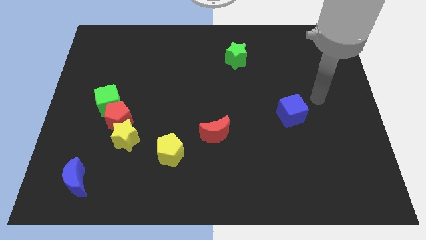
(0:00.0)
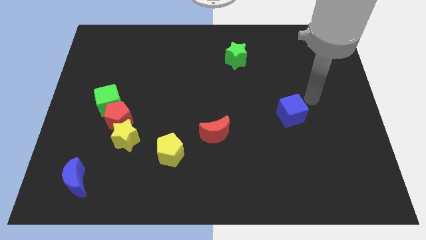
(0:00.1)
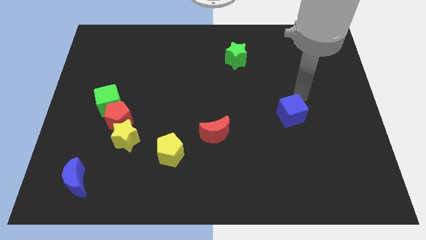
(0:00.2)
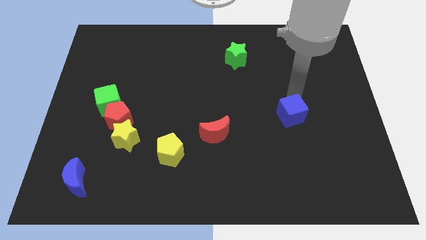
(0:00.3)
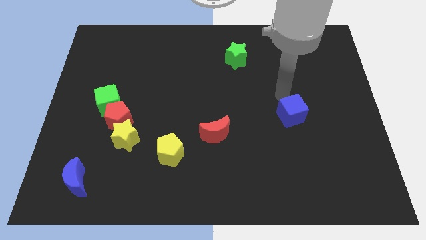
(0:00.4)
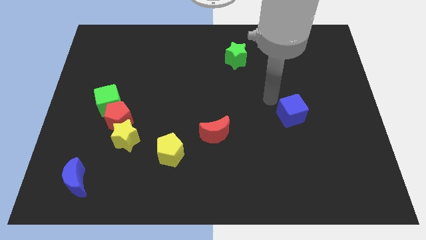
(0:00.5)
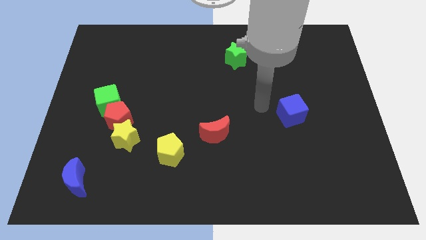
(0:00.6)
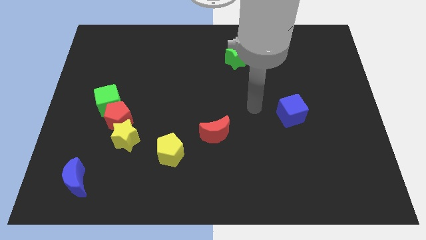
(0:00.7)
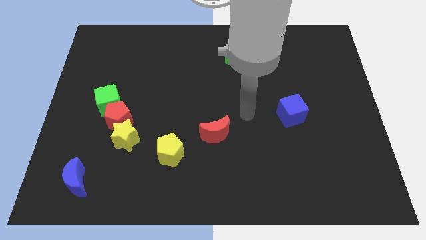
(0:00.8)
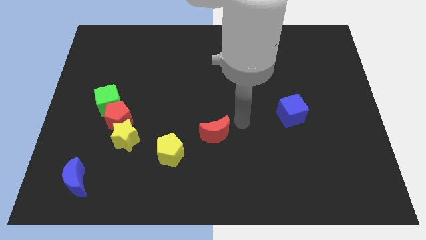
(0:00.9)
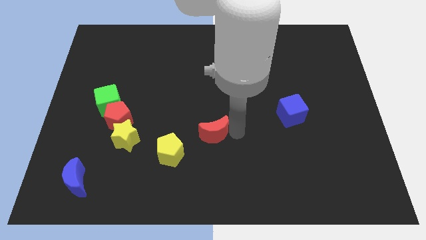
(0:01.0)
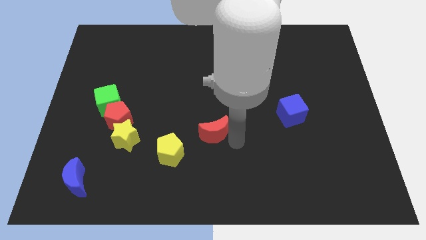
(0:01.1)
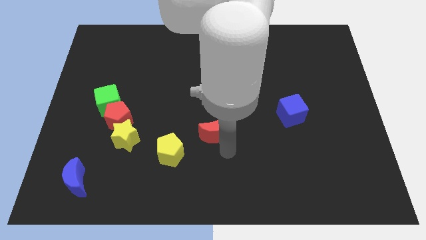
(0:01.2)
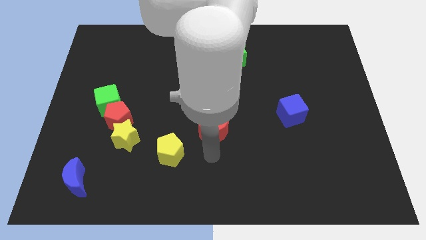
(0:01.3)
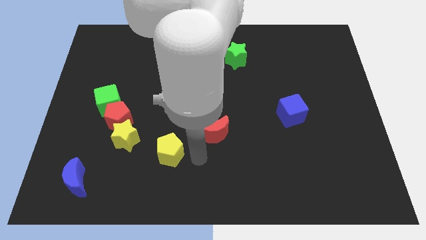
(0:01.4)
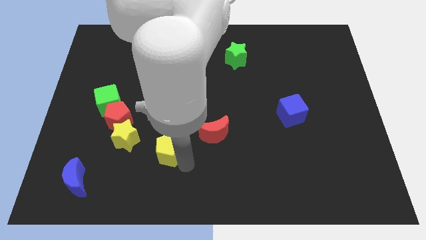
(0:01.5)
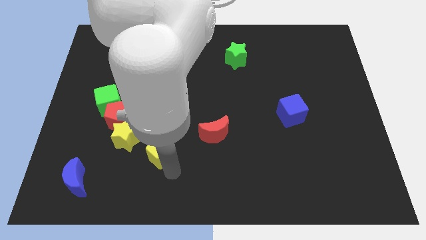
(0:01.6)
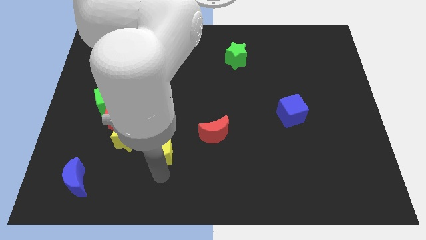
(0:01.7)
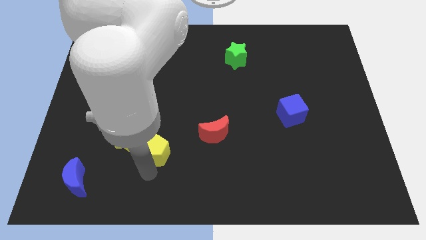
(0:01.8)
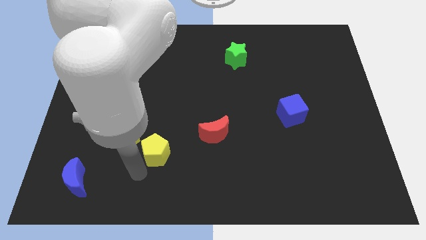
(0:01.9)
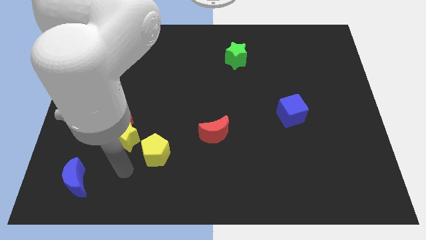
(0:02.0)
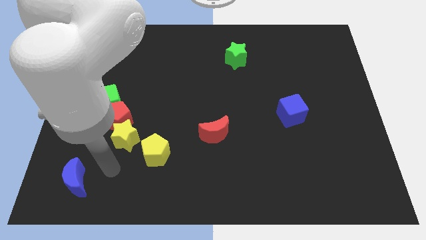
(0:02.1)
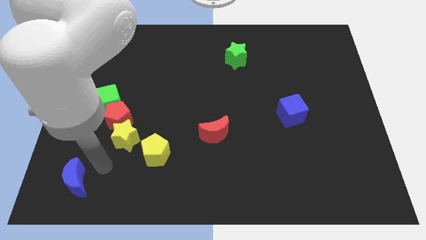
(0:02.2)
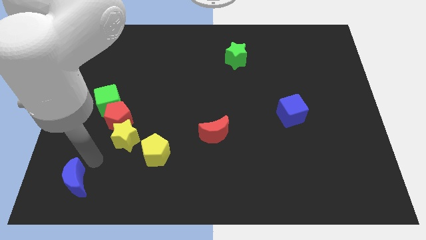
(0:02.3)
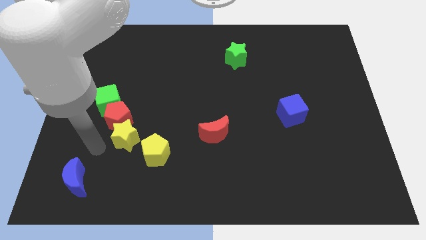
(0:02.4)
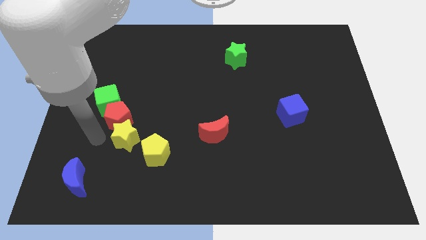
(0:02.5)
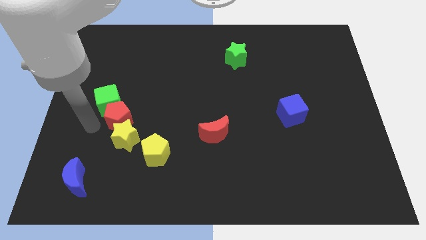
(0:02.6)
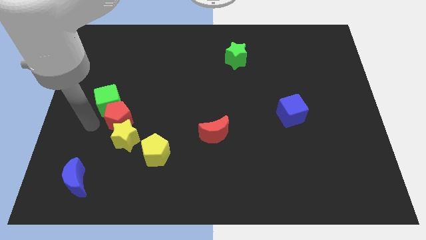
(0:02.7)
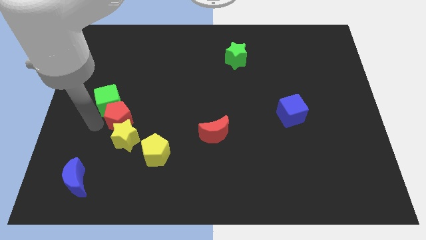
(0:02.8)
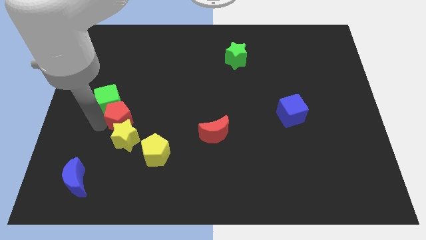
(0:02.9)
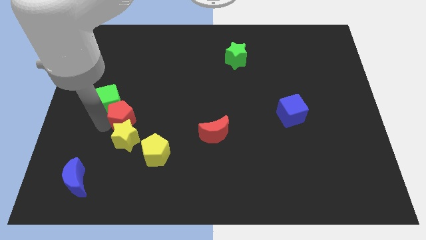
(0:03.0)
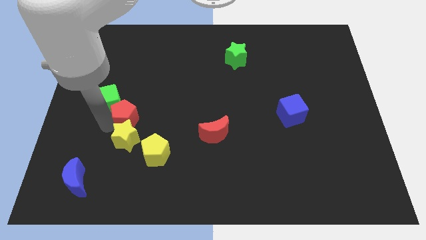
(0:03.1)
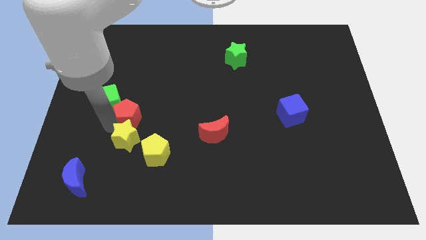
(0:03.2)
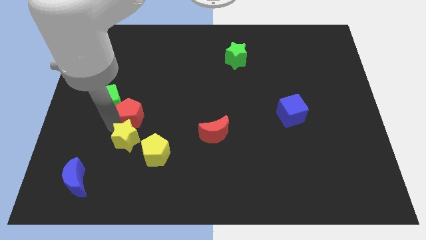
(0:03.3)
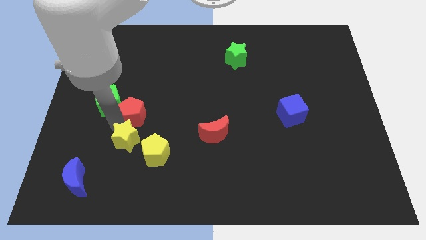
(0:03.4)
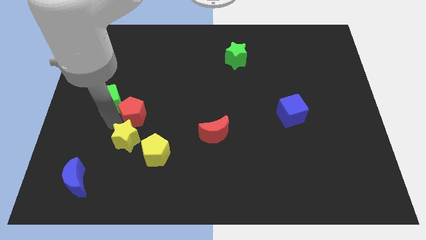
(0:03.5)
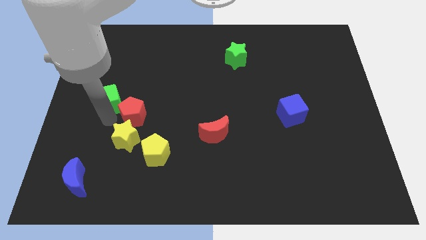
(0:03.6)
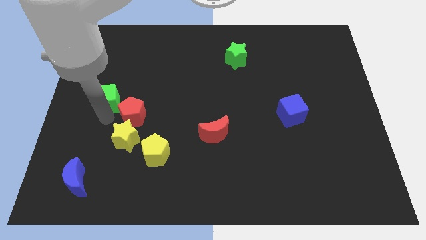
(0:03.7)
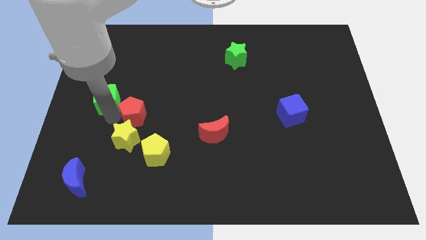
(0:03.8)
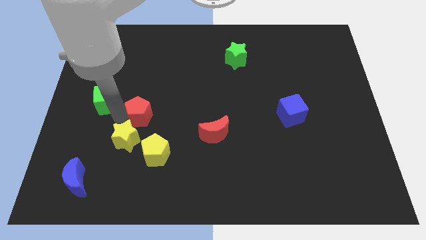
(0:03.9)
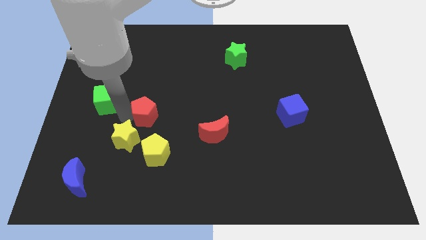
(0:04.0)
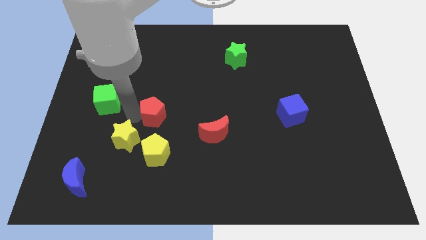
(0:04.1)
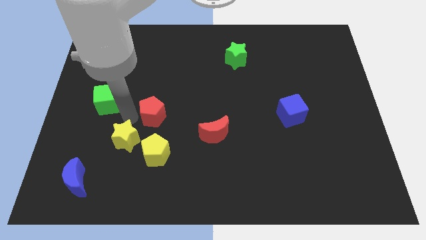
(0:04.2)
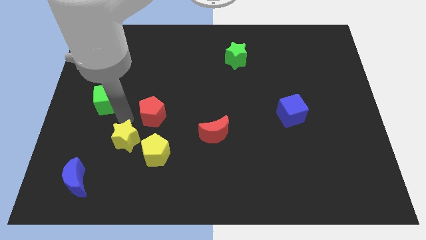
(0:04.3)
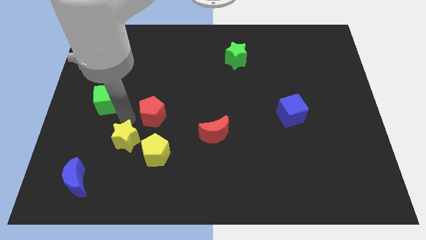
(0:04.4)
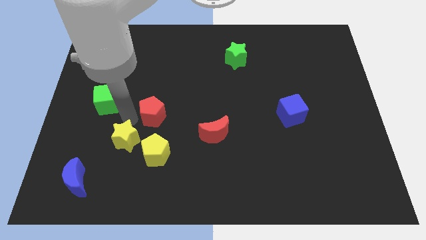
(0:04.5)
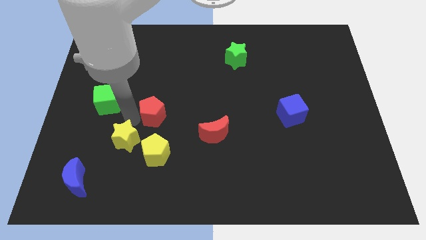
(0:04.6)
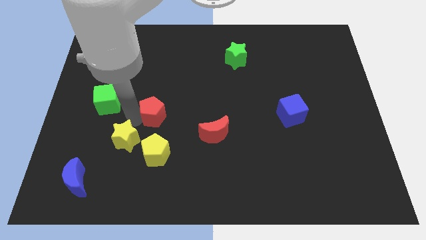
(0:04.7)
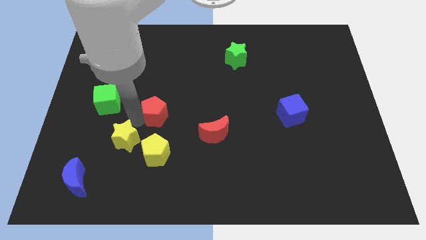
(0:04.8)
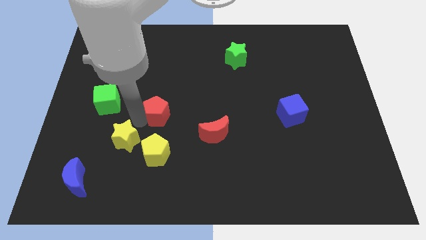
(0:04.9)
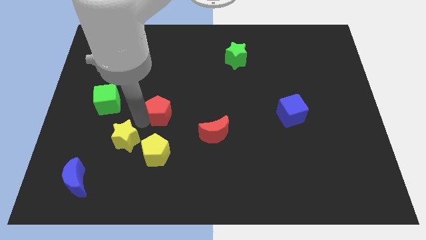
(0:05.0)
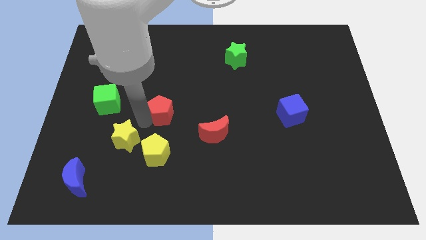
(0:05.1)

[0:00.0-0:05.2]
separate the red pentagon from the yellow star and green cube

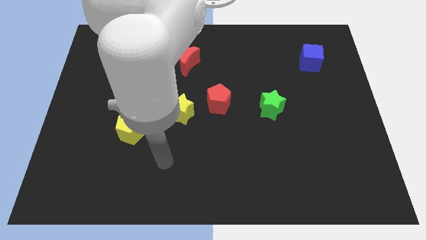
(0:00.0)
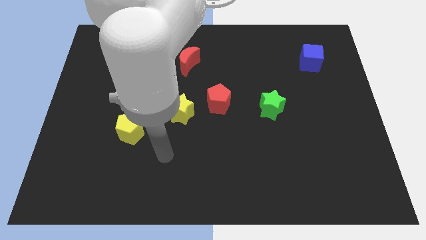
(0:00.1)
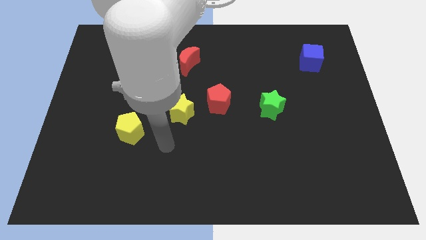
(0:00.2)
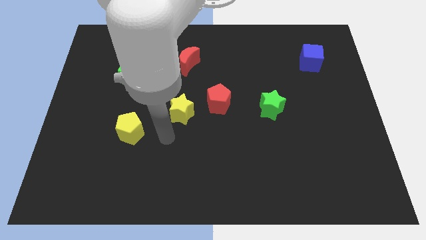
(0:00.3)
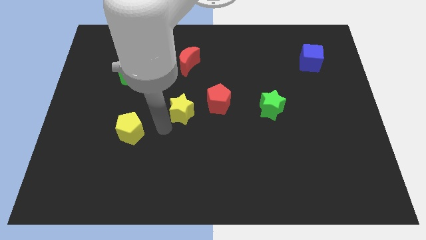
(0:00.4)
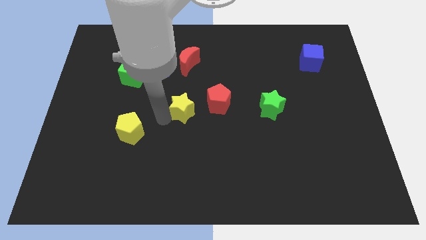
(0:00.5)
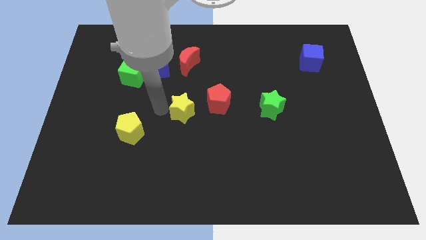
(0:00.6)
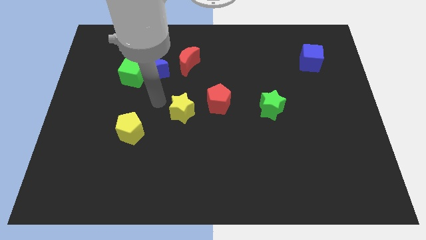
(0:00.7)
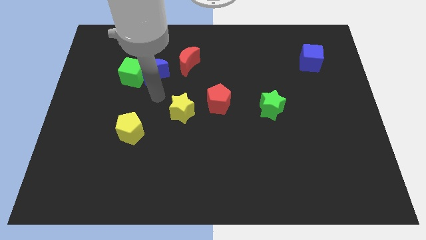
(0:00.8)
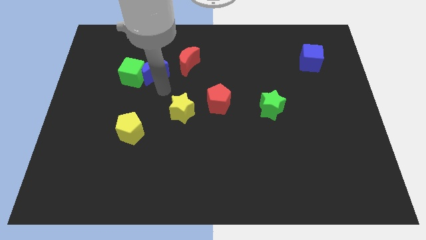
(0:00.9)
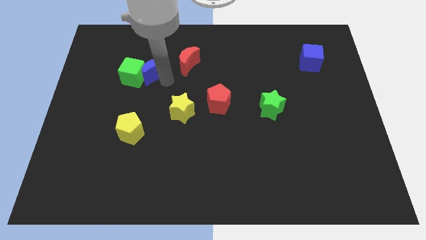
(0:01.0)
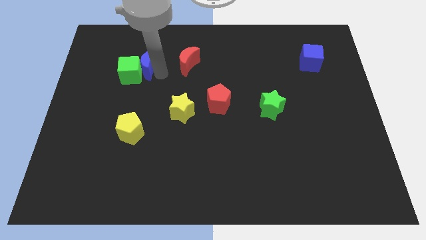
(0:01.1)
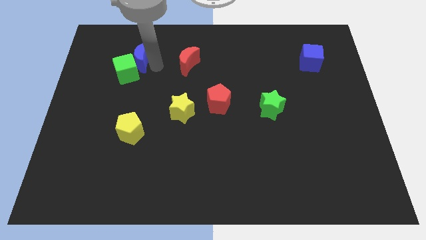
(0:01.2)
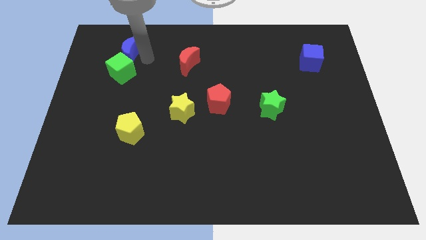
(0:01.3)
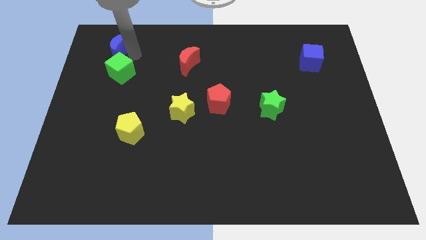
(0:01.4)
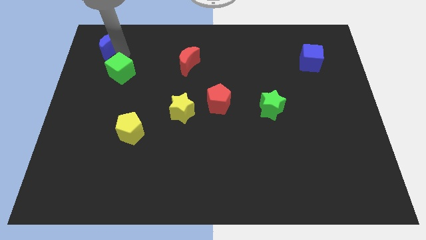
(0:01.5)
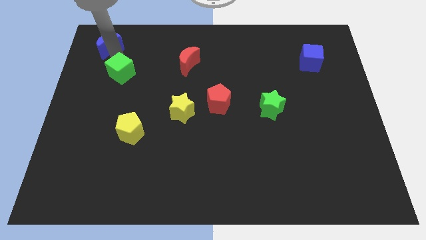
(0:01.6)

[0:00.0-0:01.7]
separate the green cube from the blue moon

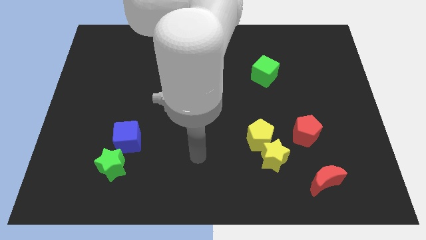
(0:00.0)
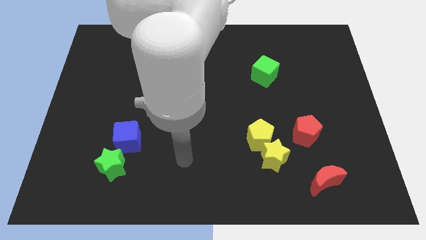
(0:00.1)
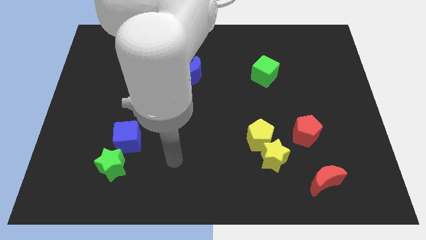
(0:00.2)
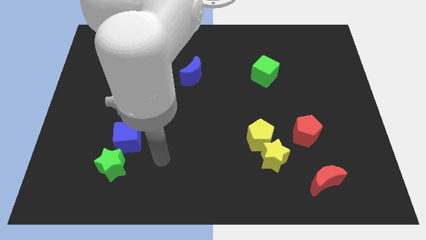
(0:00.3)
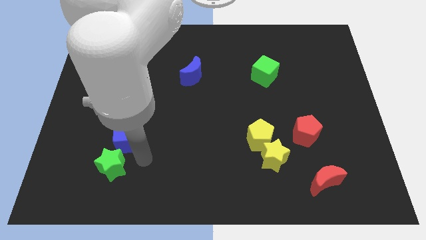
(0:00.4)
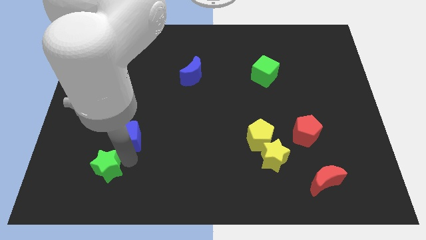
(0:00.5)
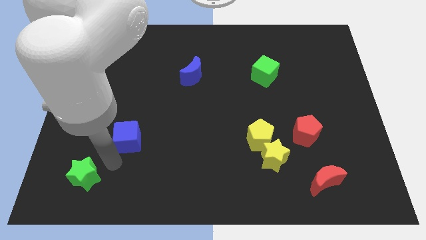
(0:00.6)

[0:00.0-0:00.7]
separate the blue cube from the green star

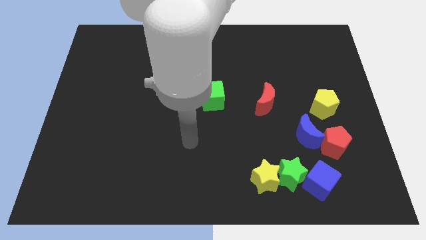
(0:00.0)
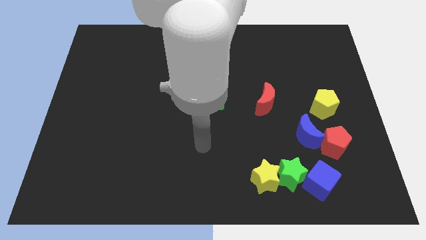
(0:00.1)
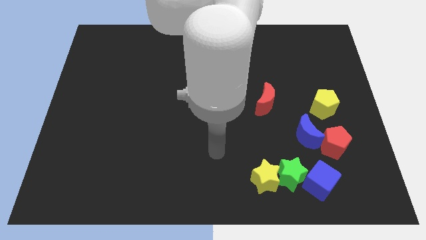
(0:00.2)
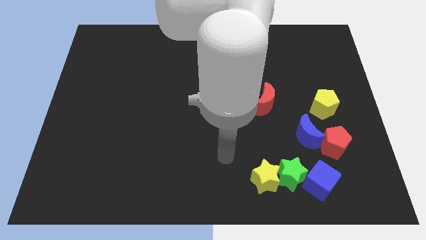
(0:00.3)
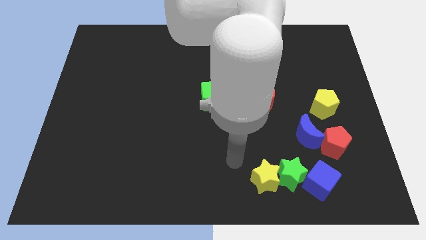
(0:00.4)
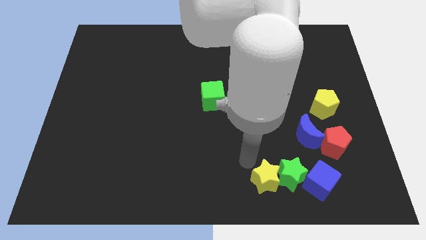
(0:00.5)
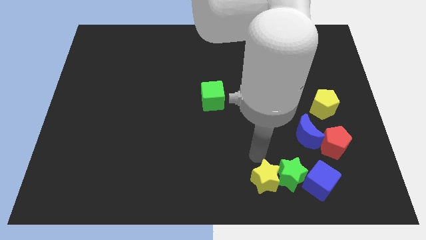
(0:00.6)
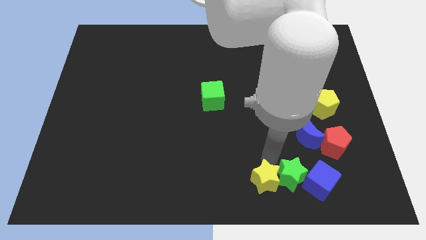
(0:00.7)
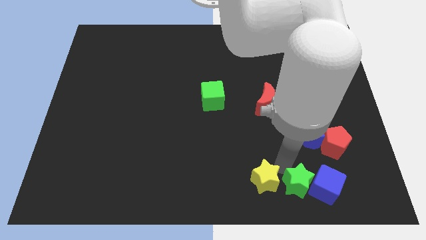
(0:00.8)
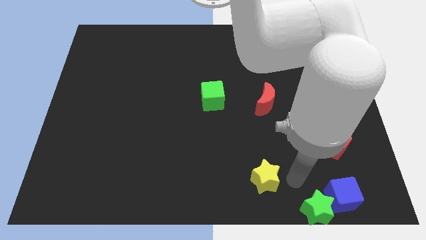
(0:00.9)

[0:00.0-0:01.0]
pull the yellow star apart from the green star

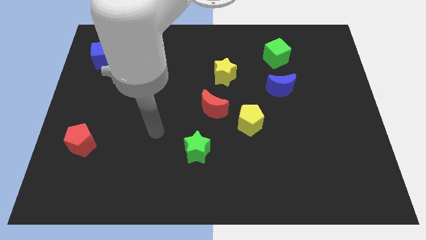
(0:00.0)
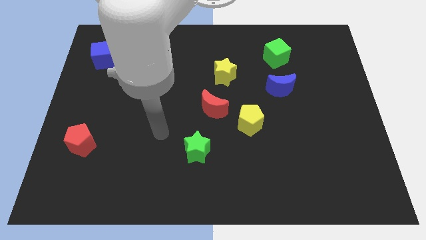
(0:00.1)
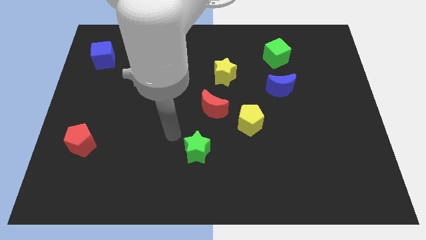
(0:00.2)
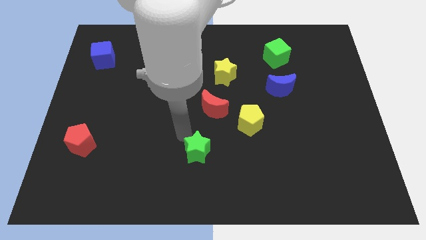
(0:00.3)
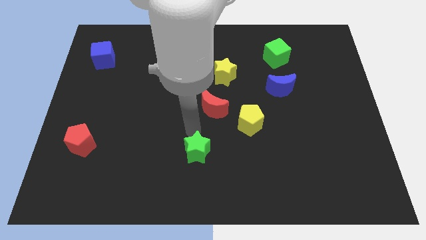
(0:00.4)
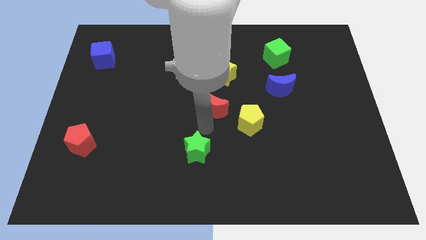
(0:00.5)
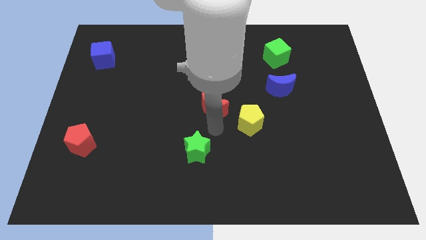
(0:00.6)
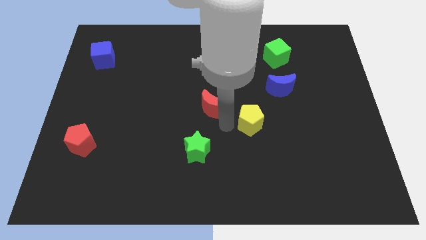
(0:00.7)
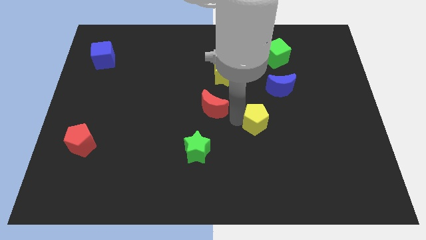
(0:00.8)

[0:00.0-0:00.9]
pull the red moon apart from the yellow pentagon
